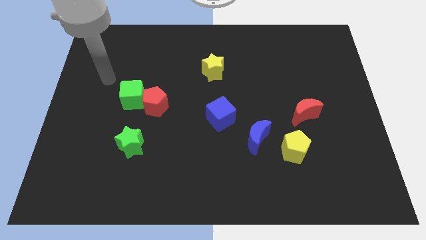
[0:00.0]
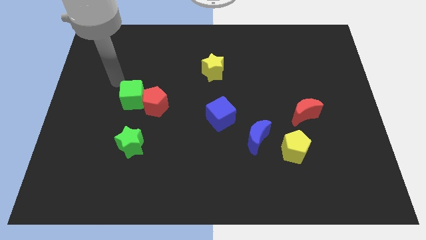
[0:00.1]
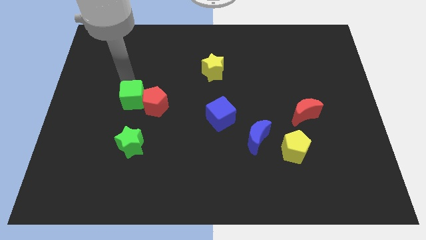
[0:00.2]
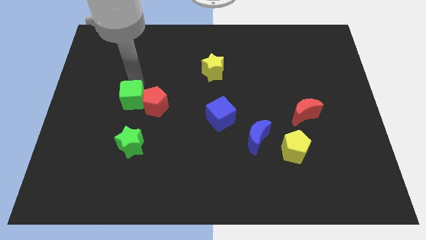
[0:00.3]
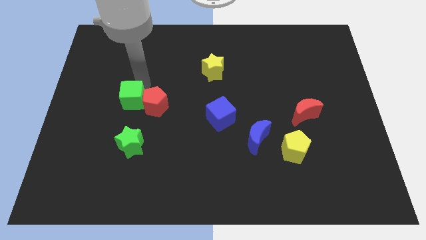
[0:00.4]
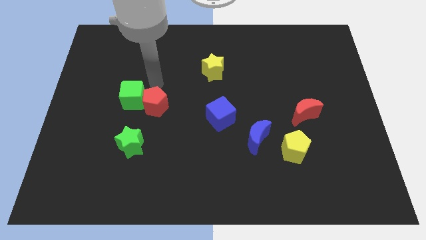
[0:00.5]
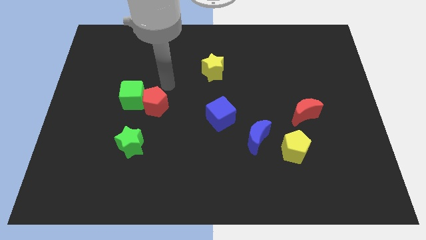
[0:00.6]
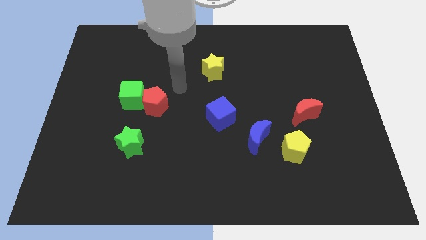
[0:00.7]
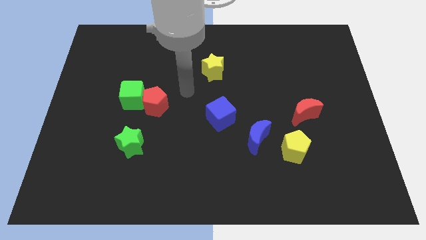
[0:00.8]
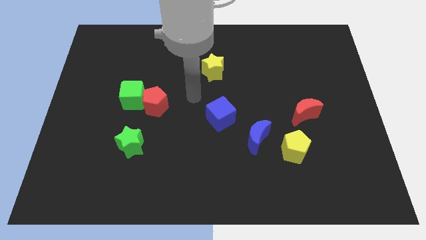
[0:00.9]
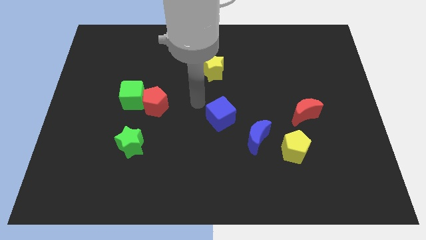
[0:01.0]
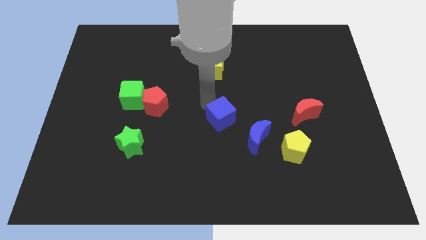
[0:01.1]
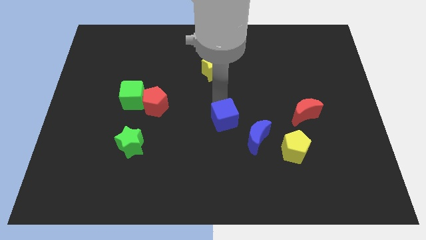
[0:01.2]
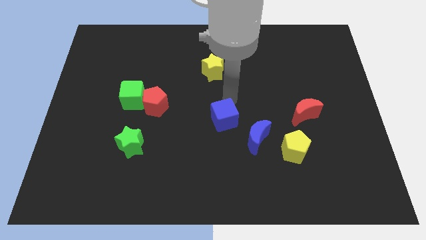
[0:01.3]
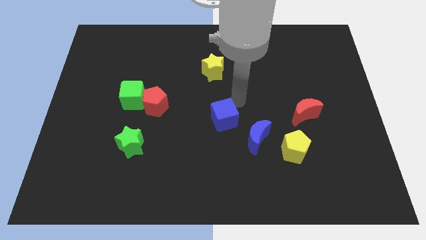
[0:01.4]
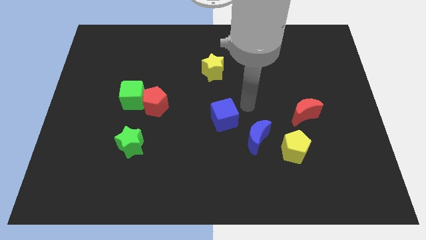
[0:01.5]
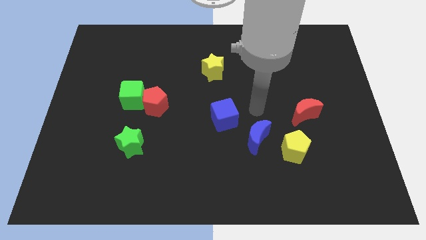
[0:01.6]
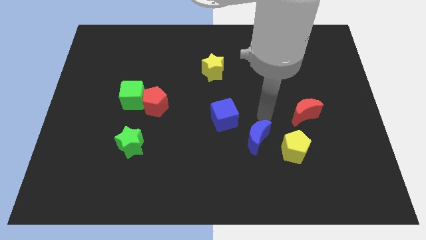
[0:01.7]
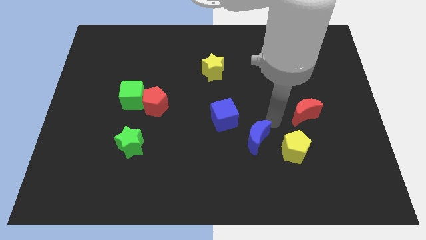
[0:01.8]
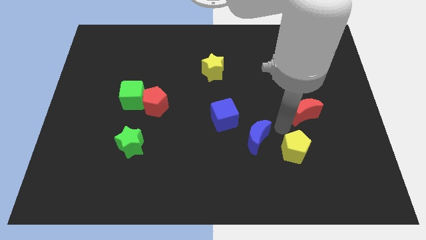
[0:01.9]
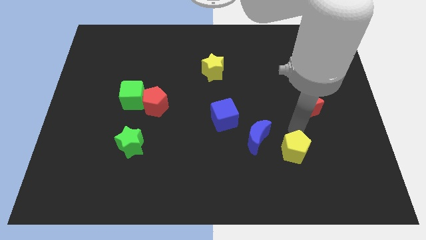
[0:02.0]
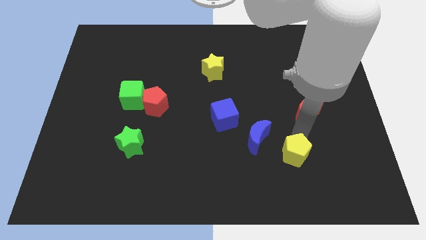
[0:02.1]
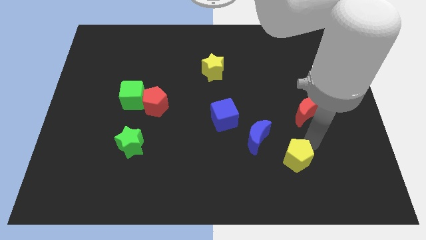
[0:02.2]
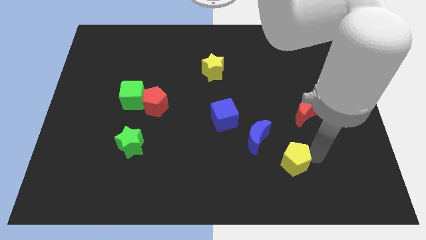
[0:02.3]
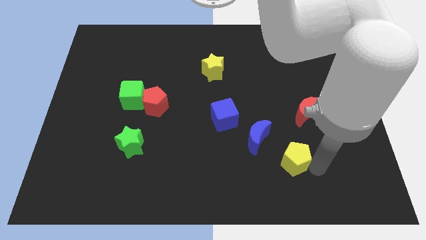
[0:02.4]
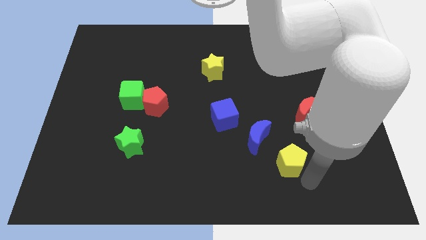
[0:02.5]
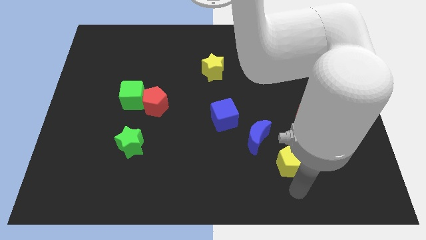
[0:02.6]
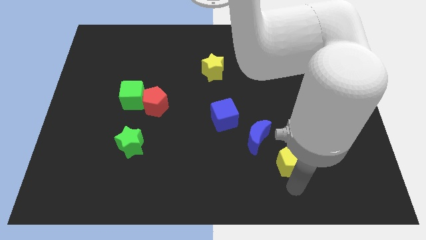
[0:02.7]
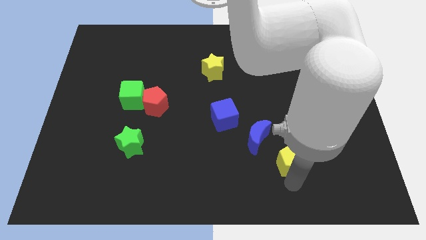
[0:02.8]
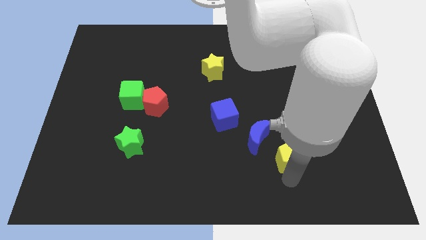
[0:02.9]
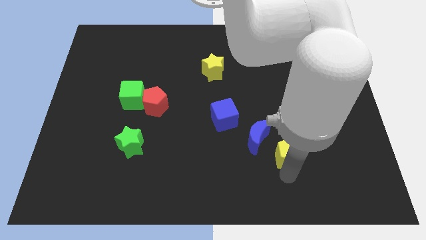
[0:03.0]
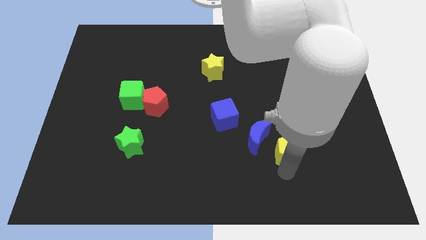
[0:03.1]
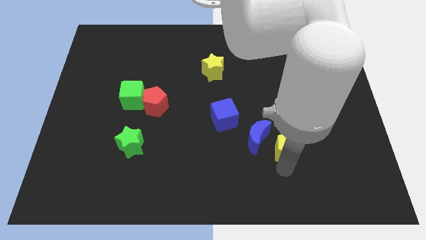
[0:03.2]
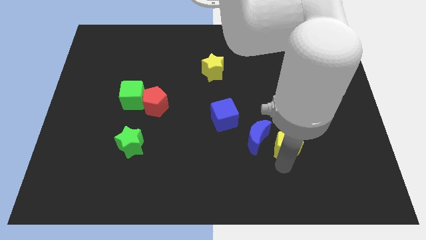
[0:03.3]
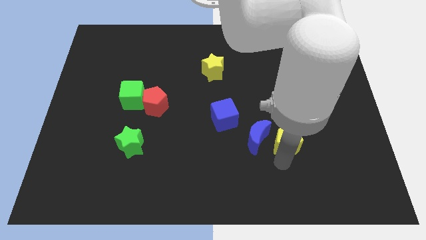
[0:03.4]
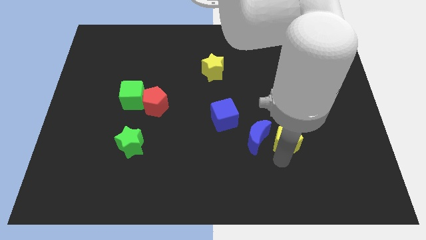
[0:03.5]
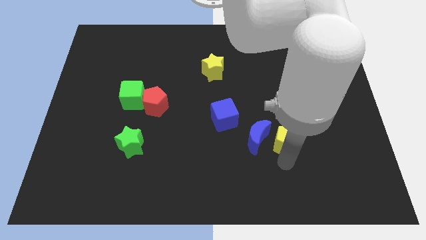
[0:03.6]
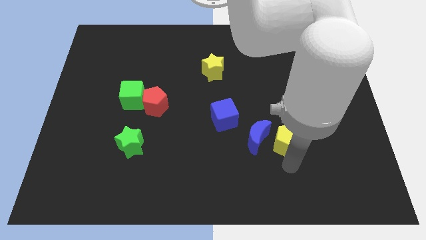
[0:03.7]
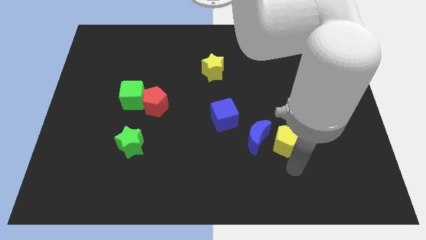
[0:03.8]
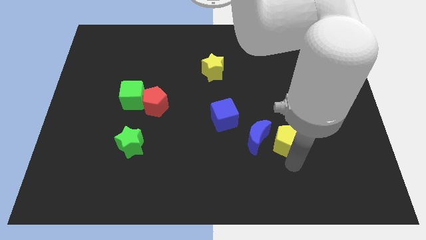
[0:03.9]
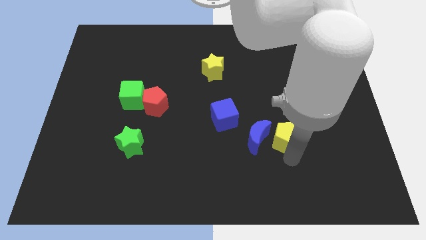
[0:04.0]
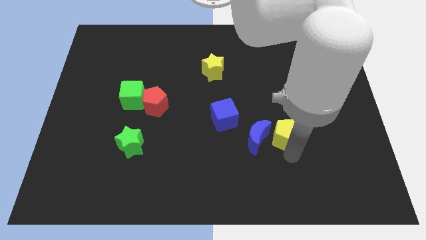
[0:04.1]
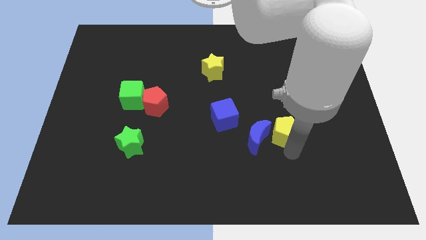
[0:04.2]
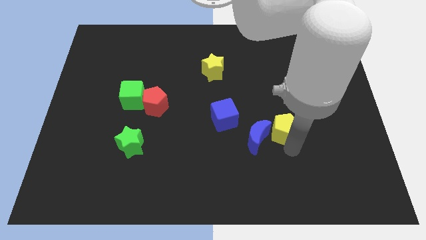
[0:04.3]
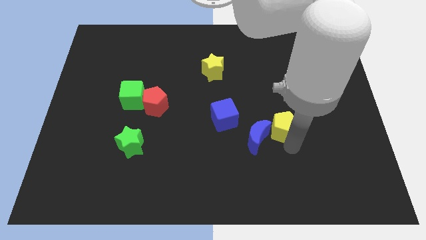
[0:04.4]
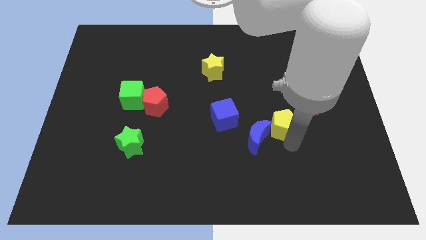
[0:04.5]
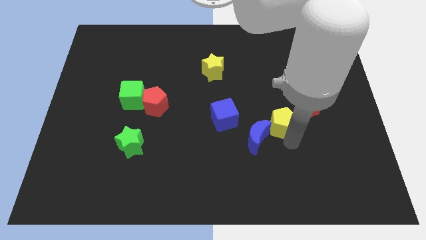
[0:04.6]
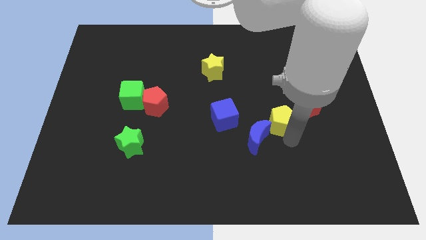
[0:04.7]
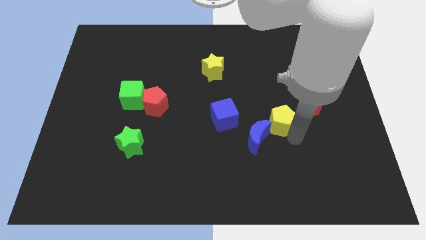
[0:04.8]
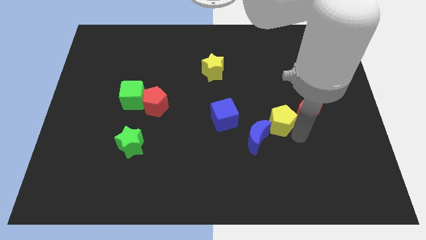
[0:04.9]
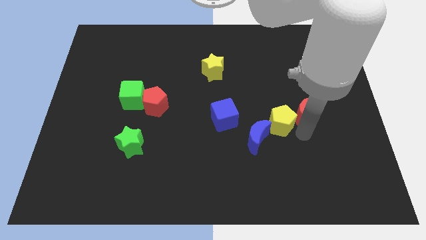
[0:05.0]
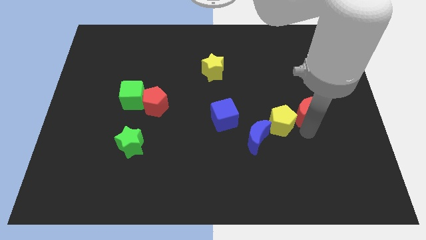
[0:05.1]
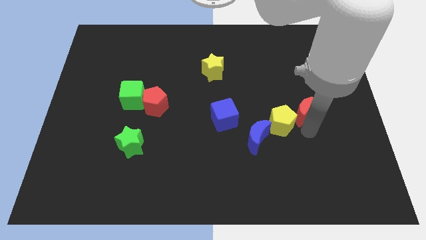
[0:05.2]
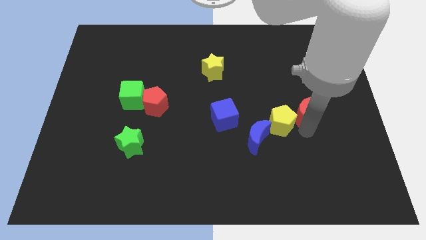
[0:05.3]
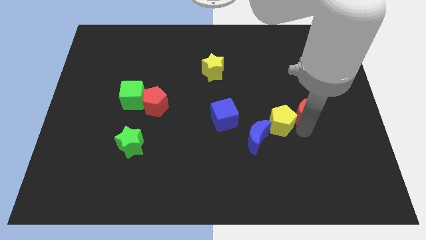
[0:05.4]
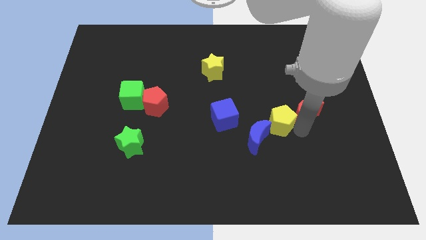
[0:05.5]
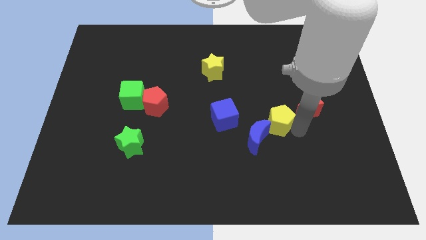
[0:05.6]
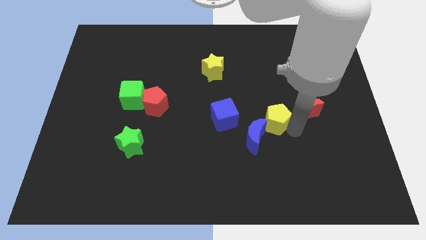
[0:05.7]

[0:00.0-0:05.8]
push the yellow pentagon diagonally up and to the left a little

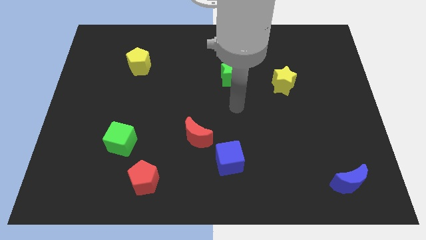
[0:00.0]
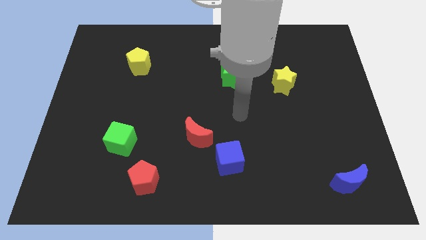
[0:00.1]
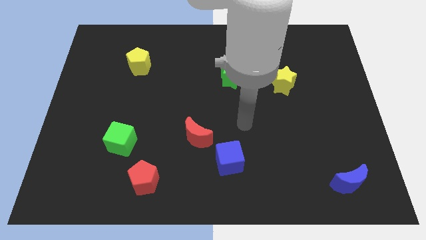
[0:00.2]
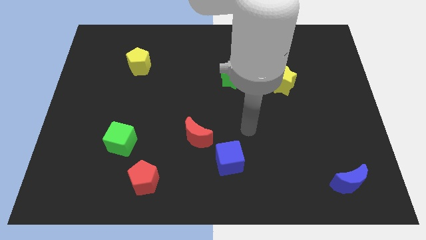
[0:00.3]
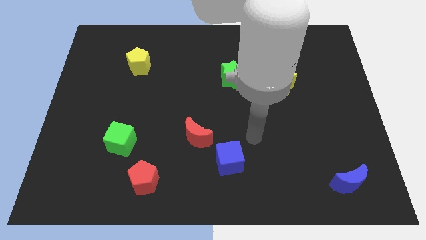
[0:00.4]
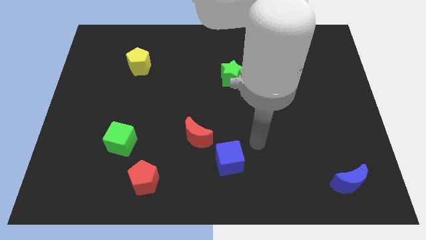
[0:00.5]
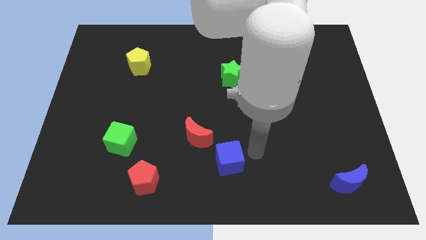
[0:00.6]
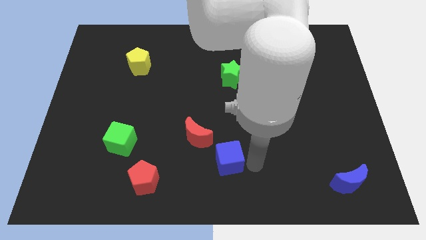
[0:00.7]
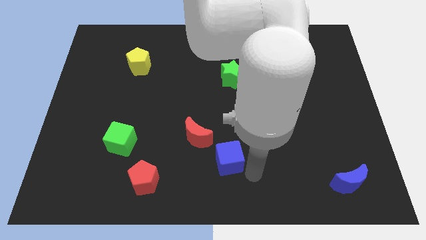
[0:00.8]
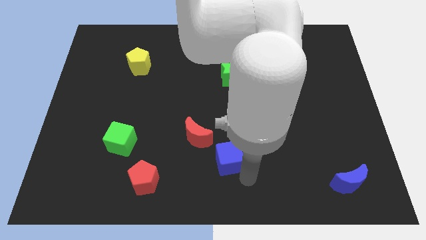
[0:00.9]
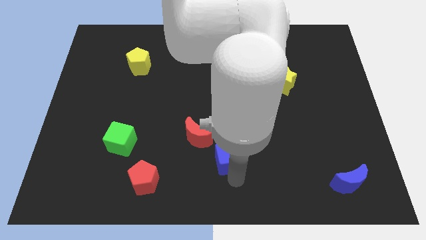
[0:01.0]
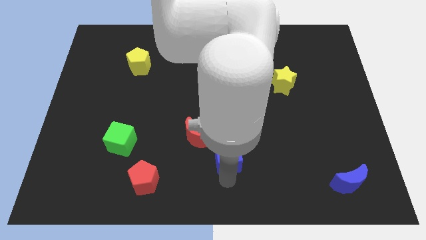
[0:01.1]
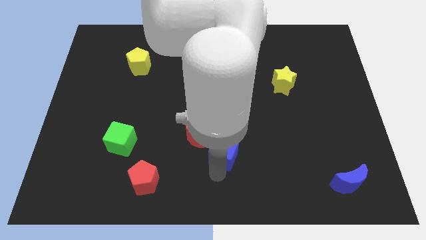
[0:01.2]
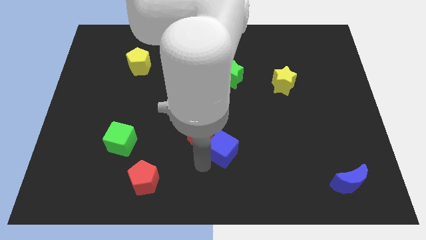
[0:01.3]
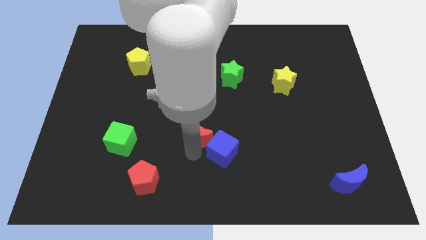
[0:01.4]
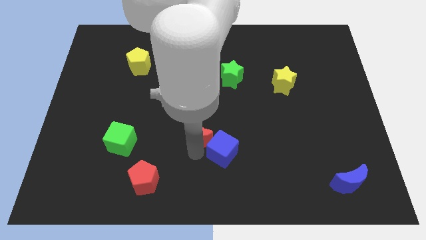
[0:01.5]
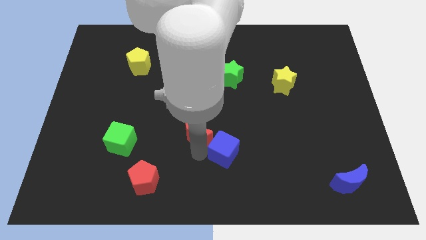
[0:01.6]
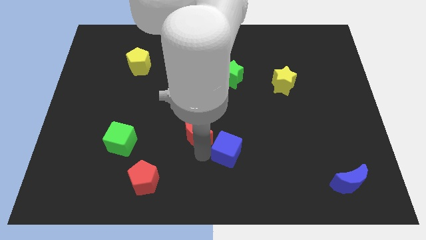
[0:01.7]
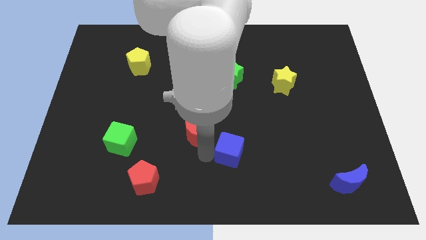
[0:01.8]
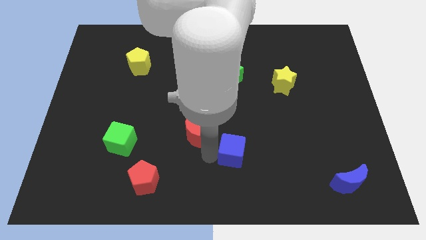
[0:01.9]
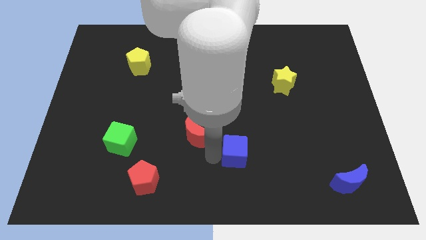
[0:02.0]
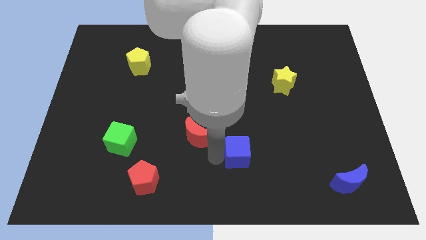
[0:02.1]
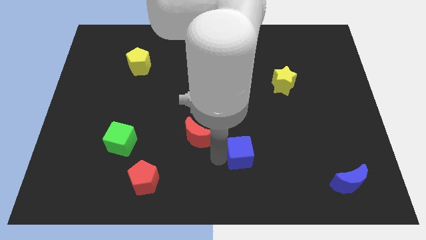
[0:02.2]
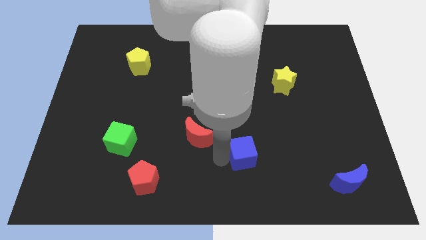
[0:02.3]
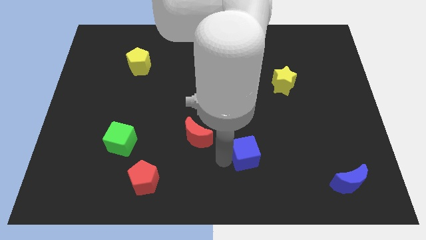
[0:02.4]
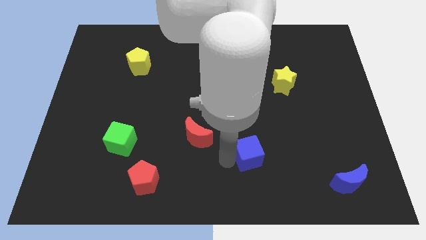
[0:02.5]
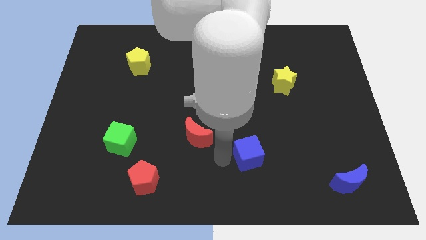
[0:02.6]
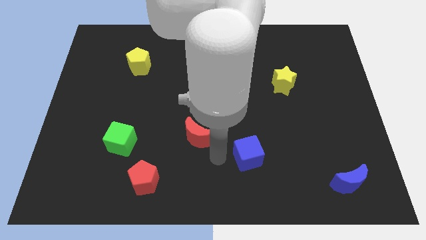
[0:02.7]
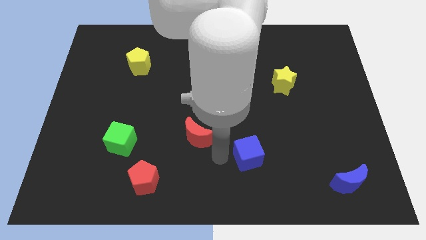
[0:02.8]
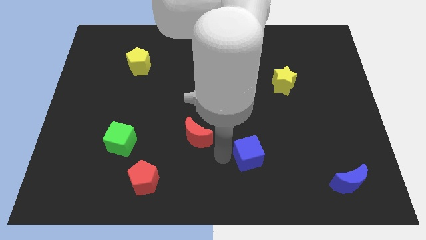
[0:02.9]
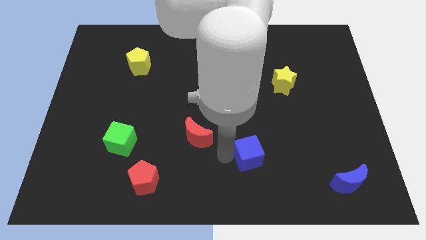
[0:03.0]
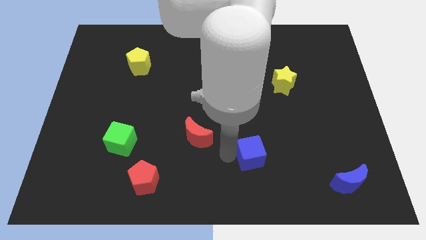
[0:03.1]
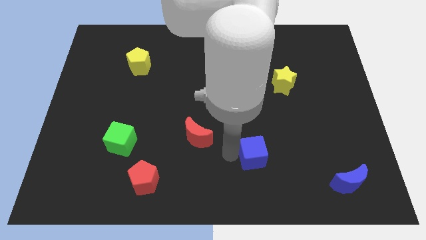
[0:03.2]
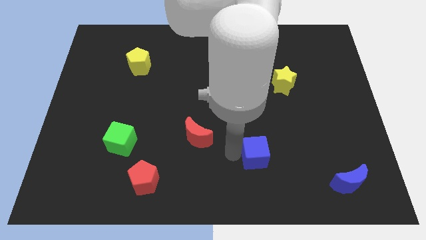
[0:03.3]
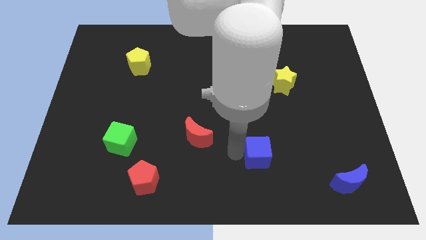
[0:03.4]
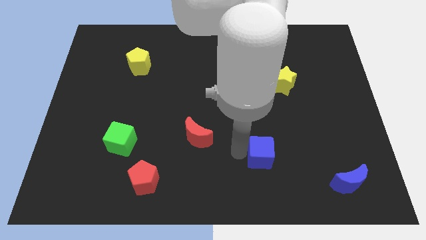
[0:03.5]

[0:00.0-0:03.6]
push the blue cube a bit to the right
